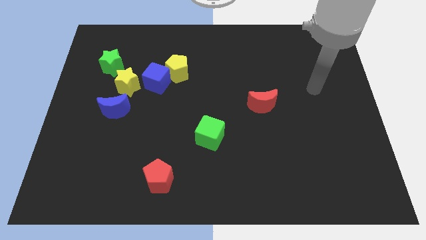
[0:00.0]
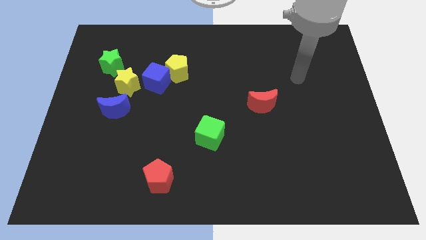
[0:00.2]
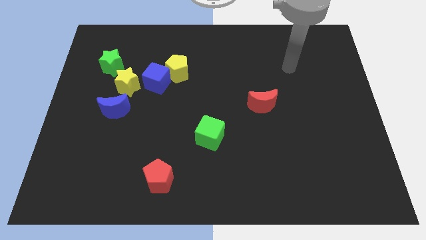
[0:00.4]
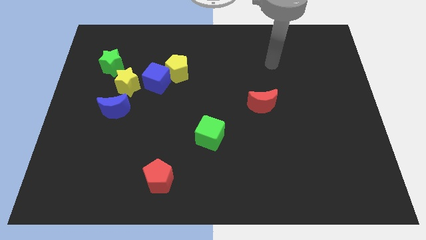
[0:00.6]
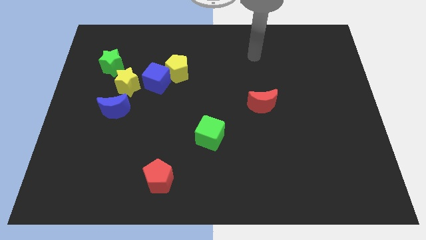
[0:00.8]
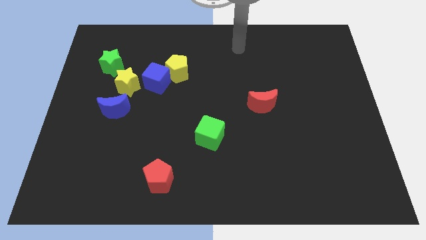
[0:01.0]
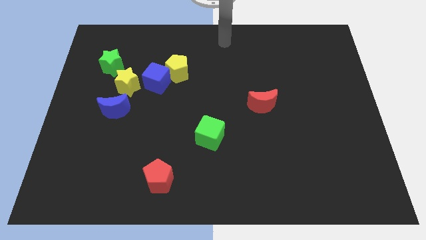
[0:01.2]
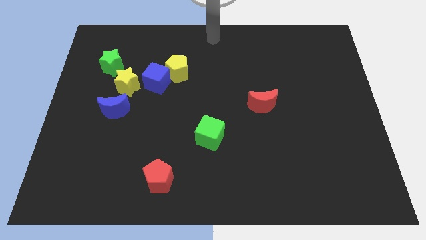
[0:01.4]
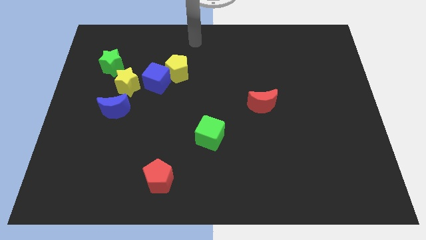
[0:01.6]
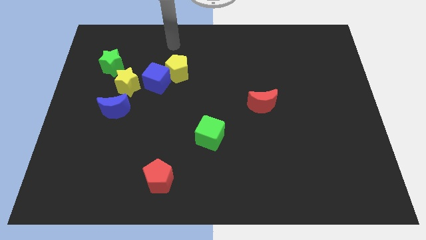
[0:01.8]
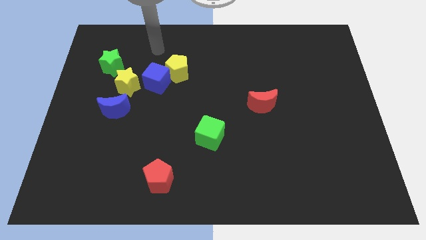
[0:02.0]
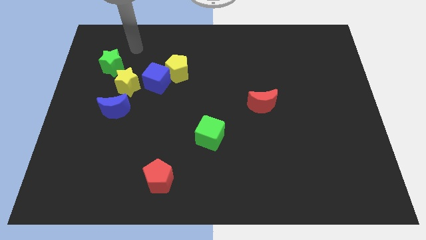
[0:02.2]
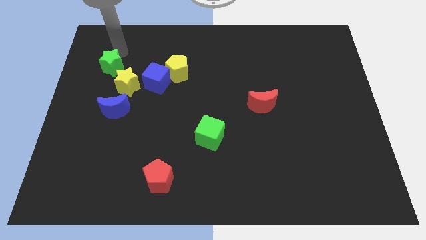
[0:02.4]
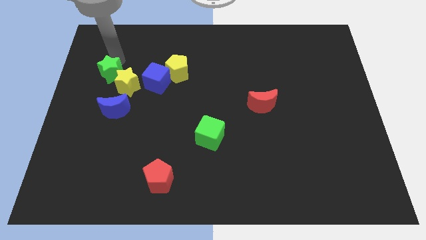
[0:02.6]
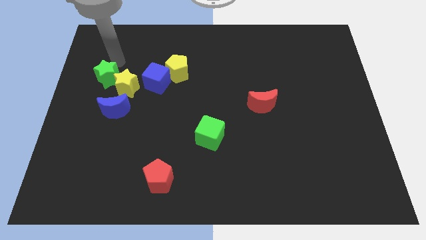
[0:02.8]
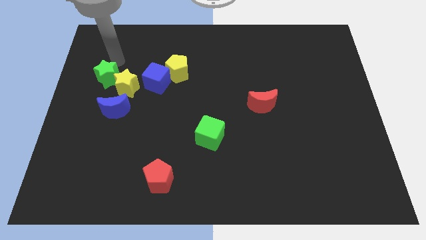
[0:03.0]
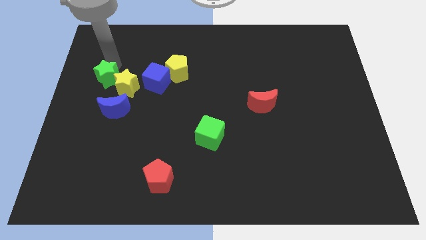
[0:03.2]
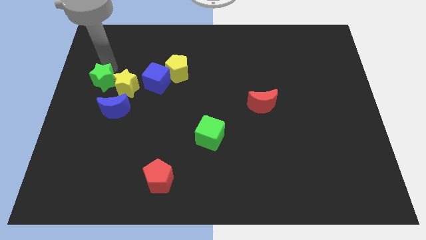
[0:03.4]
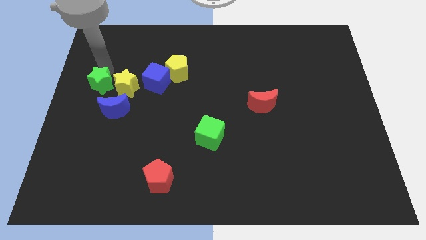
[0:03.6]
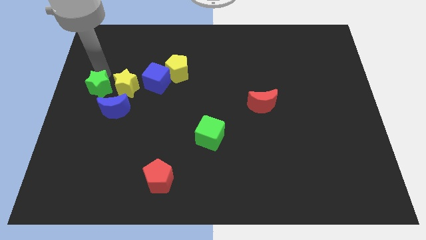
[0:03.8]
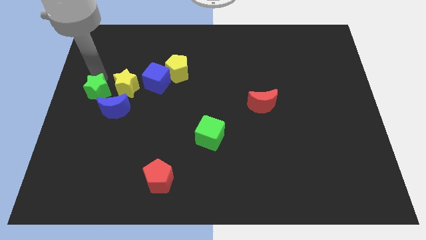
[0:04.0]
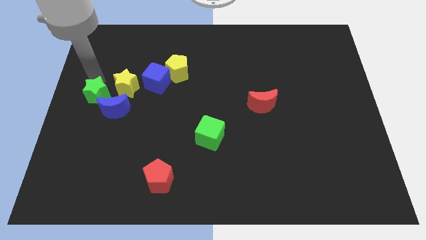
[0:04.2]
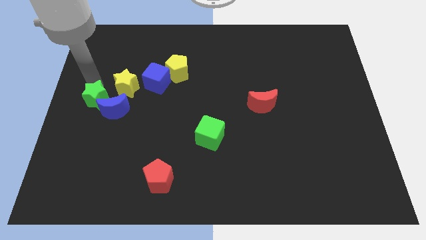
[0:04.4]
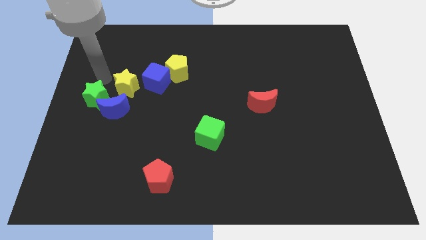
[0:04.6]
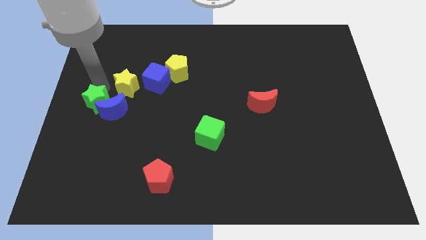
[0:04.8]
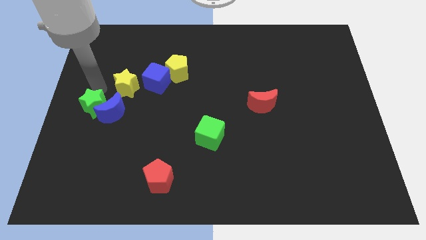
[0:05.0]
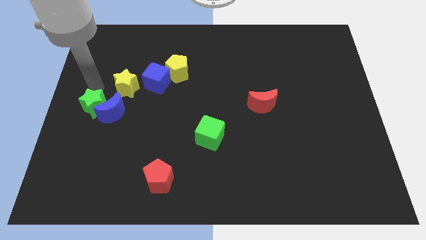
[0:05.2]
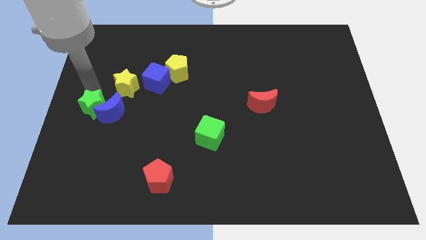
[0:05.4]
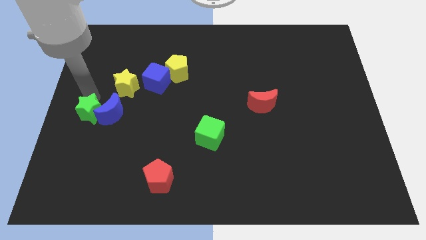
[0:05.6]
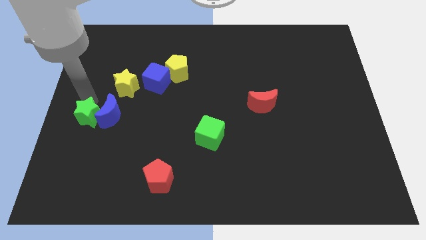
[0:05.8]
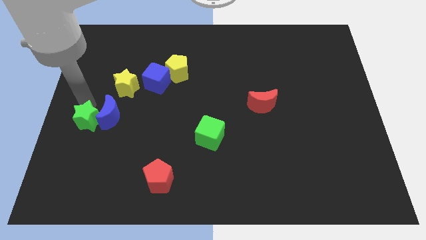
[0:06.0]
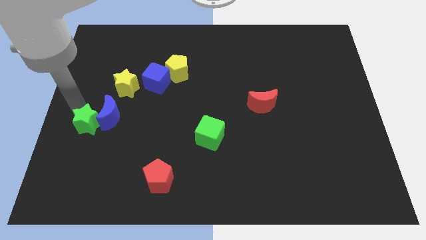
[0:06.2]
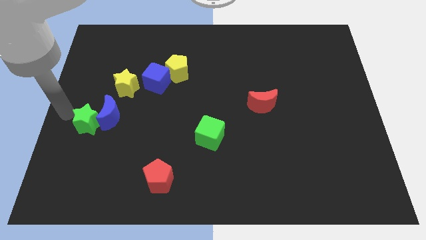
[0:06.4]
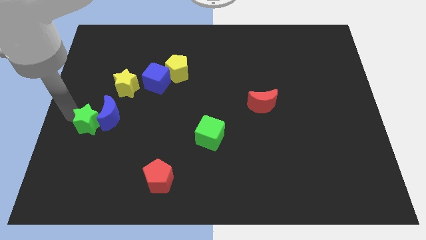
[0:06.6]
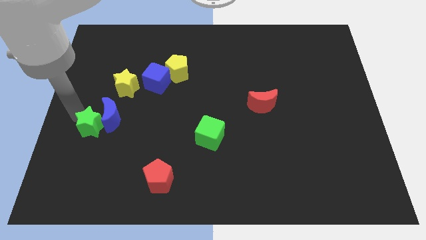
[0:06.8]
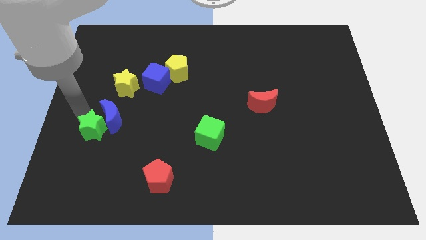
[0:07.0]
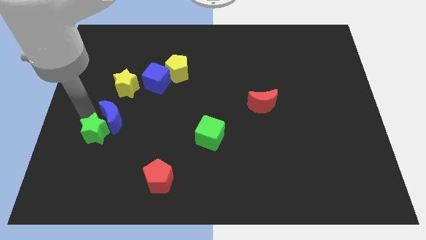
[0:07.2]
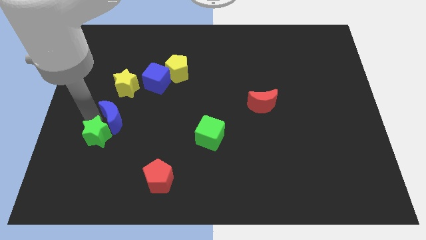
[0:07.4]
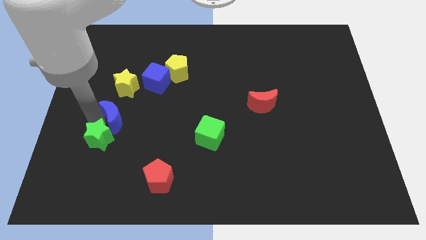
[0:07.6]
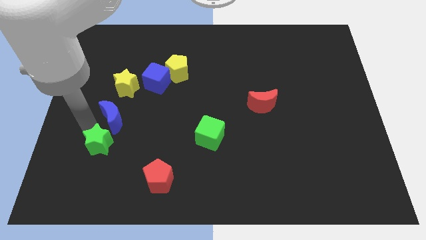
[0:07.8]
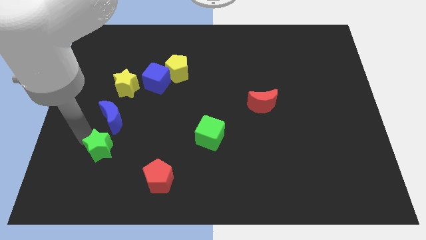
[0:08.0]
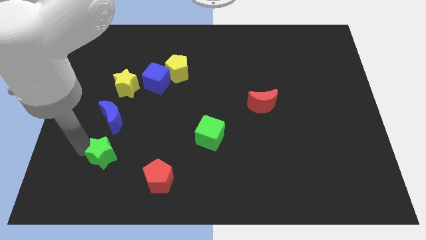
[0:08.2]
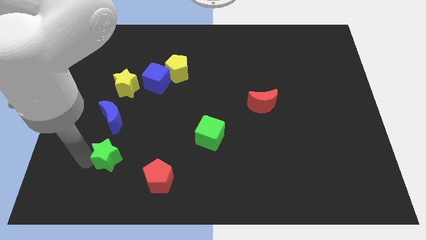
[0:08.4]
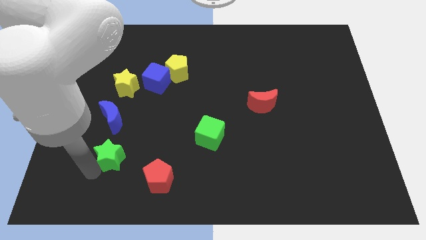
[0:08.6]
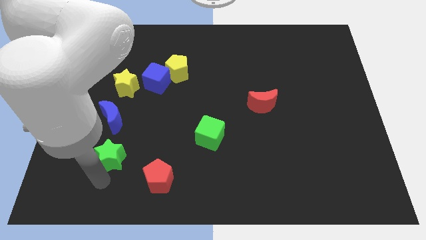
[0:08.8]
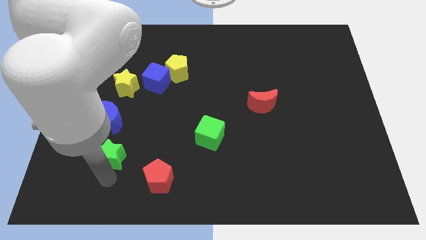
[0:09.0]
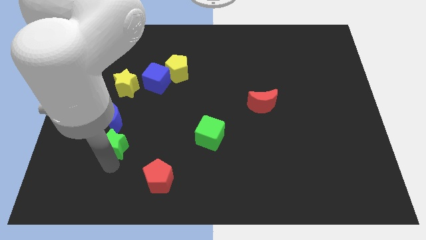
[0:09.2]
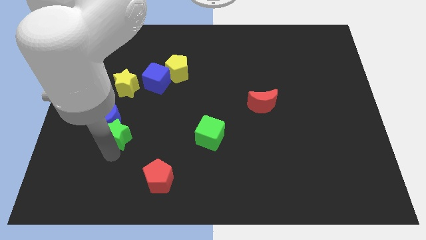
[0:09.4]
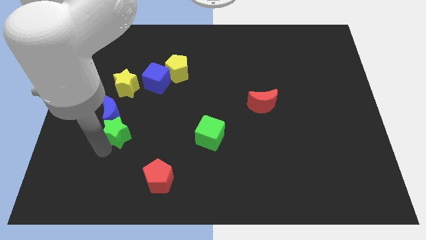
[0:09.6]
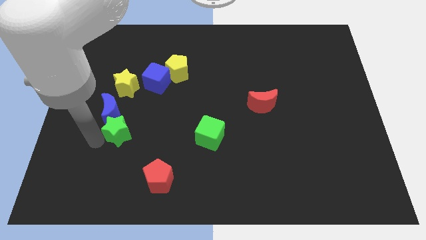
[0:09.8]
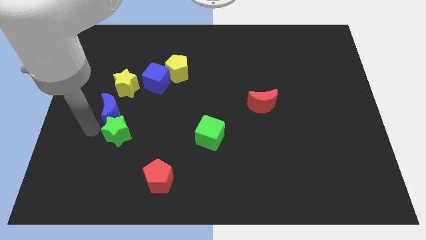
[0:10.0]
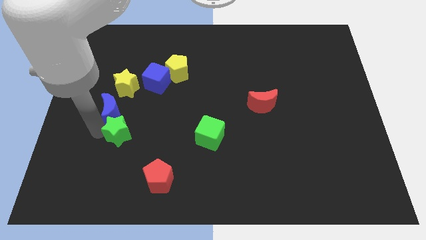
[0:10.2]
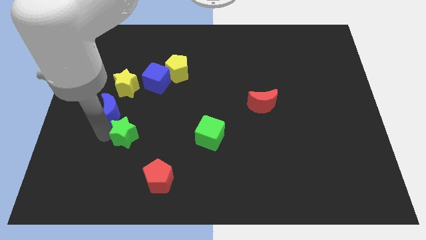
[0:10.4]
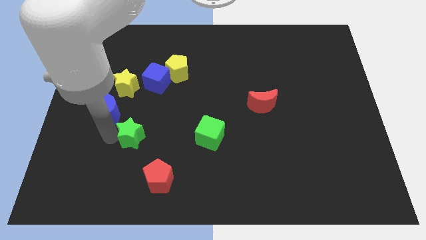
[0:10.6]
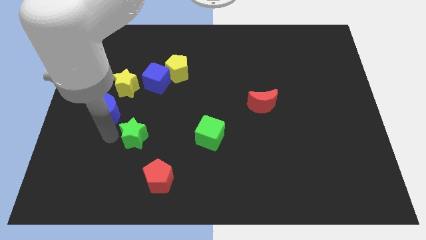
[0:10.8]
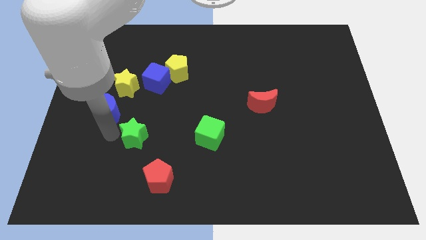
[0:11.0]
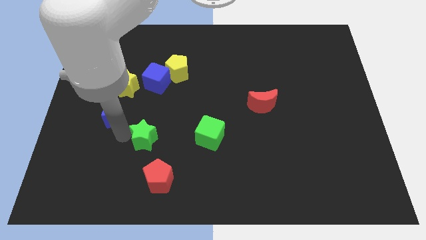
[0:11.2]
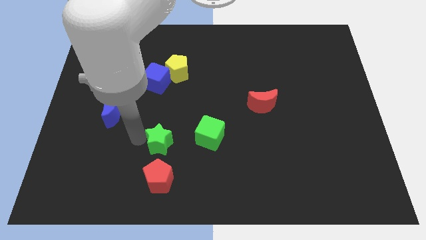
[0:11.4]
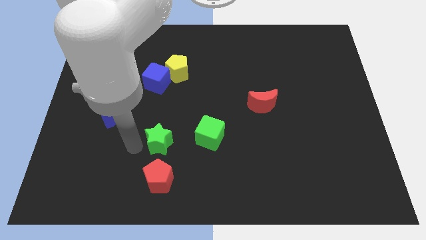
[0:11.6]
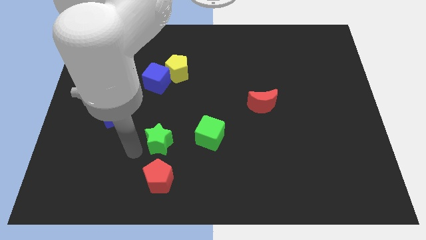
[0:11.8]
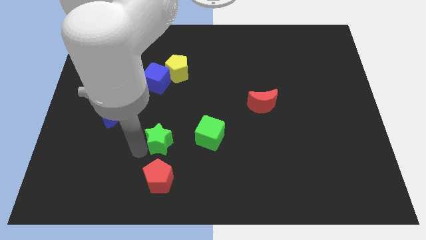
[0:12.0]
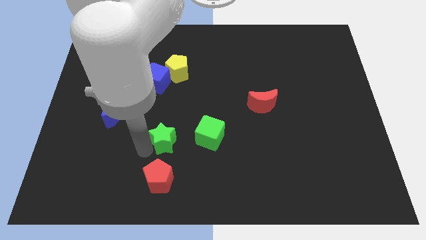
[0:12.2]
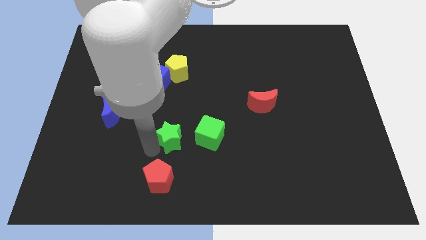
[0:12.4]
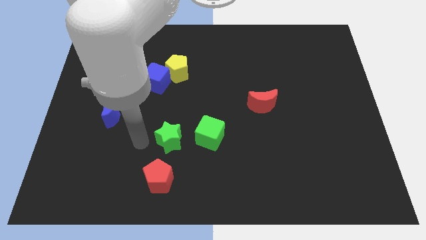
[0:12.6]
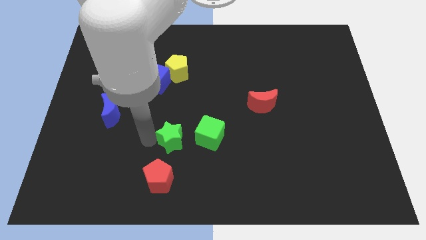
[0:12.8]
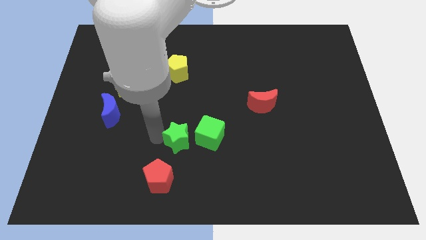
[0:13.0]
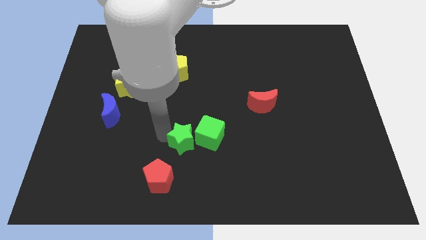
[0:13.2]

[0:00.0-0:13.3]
slide the green star towards the green cube

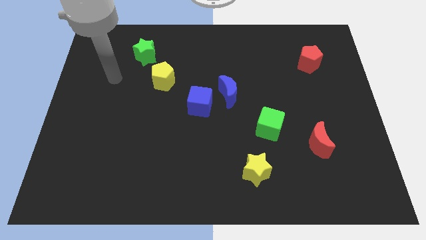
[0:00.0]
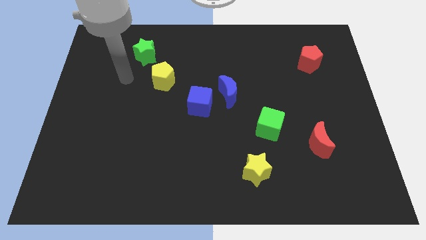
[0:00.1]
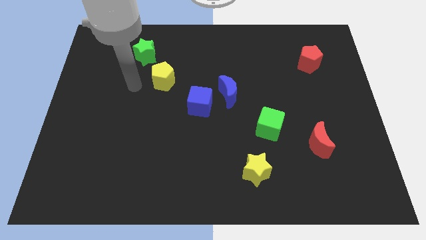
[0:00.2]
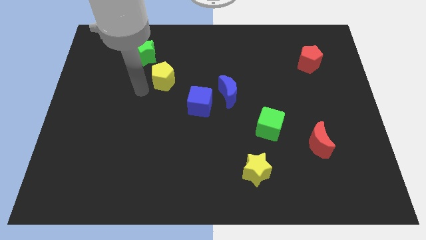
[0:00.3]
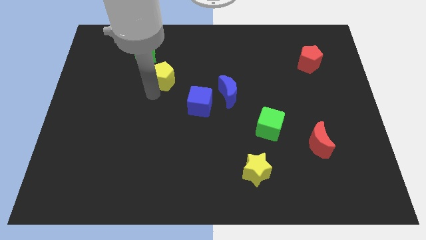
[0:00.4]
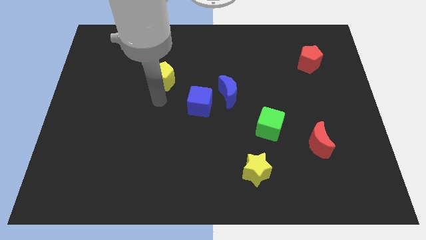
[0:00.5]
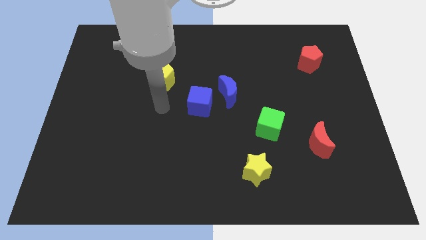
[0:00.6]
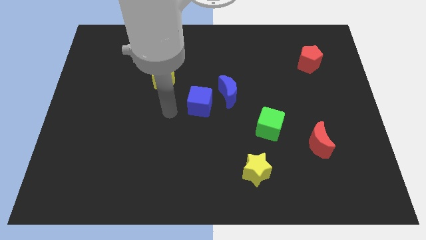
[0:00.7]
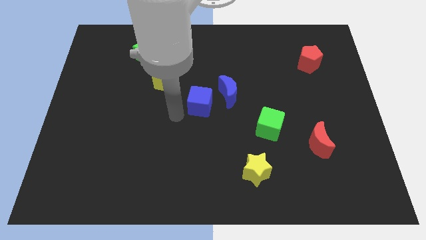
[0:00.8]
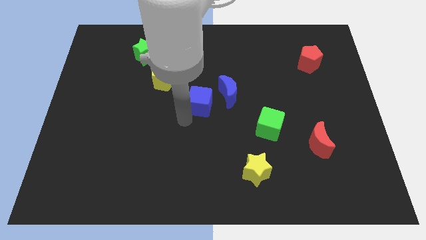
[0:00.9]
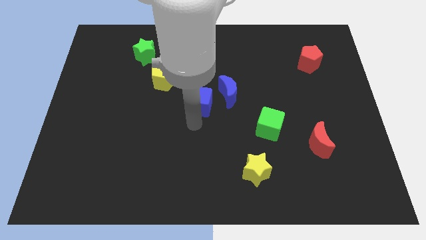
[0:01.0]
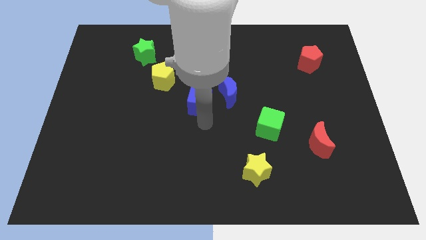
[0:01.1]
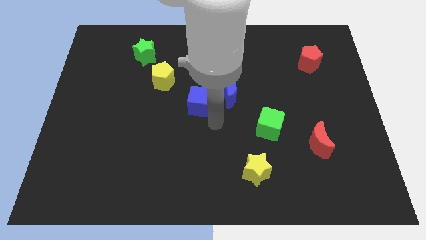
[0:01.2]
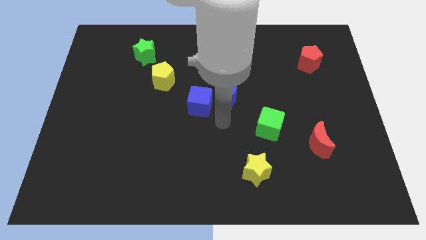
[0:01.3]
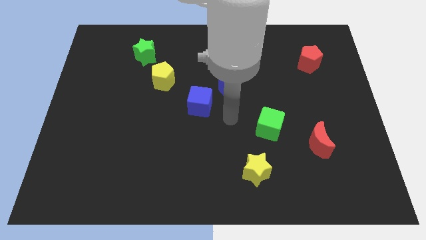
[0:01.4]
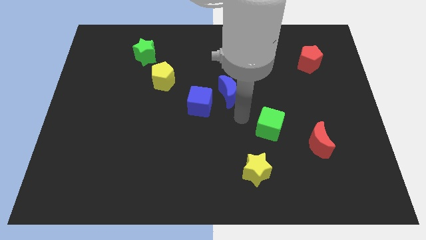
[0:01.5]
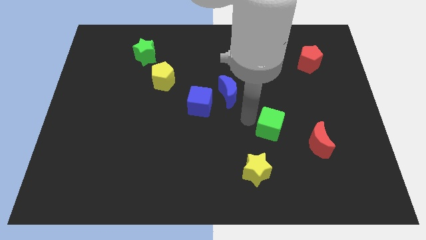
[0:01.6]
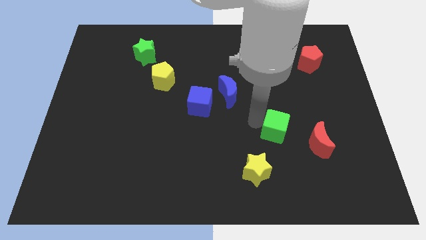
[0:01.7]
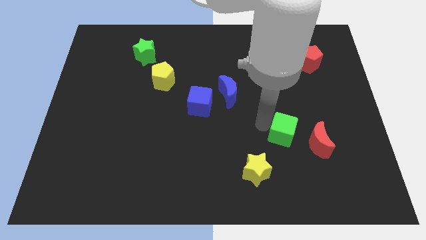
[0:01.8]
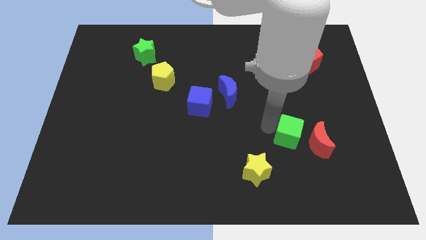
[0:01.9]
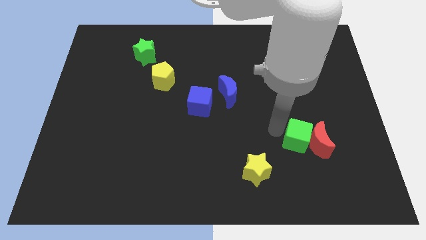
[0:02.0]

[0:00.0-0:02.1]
move the green cube to the red moon
